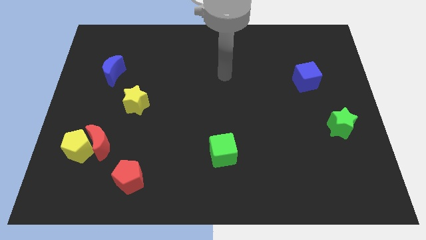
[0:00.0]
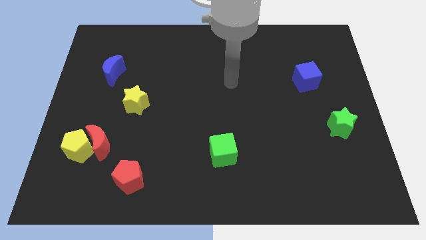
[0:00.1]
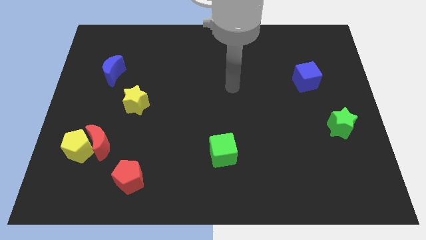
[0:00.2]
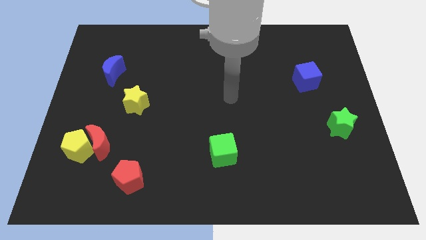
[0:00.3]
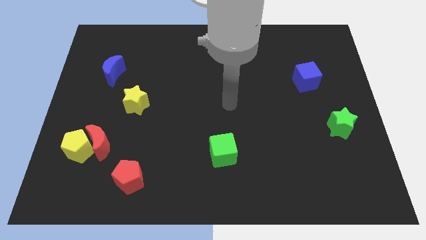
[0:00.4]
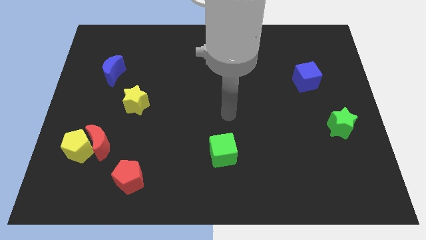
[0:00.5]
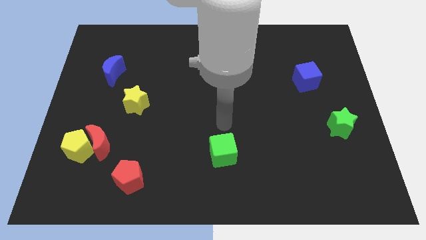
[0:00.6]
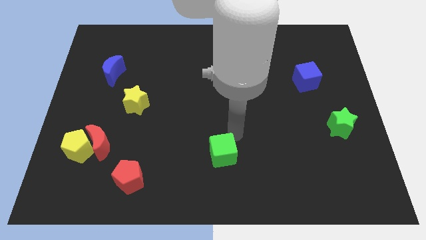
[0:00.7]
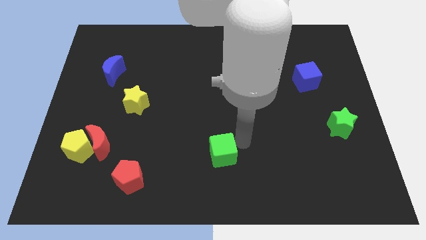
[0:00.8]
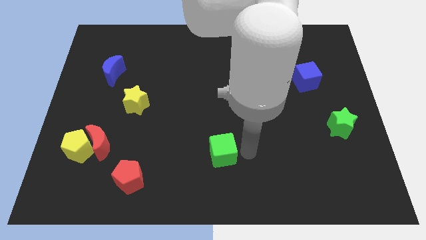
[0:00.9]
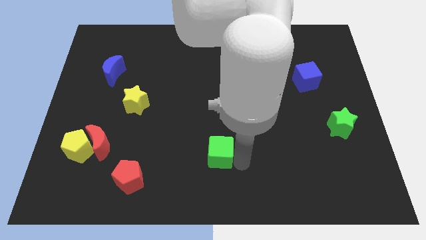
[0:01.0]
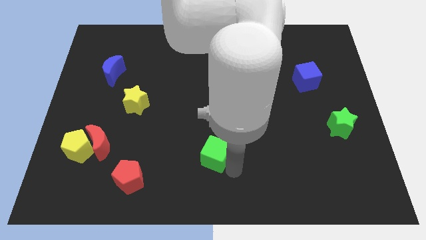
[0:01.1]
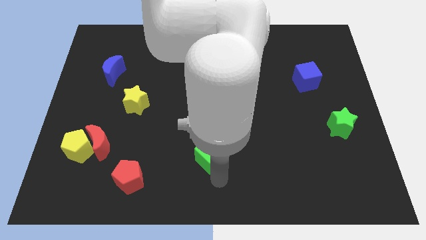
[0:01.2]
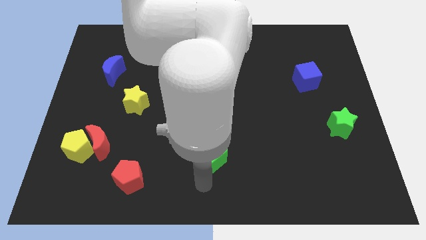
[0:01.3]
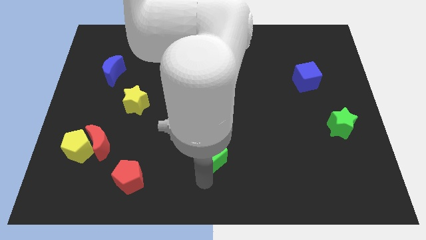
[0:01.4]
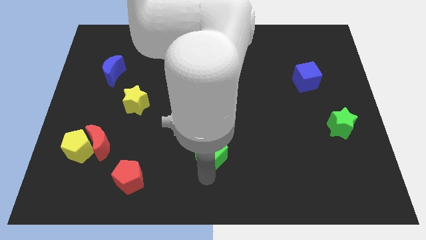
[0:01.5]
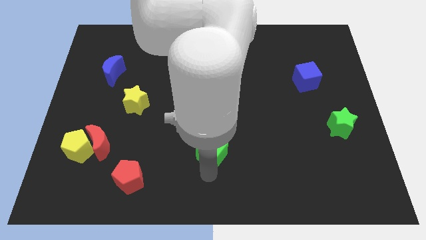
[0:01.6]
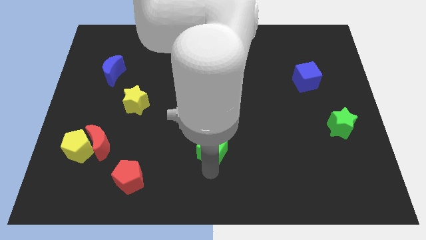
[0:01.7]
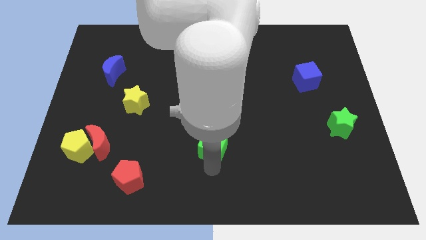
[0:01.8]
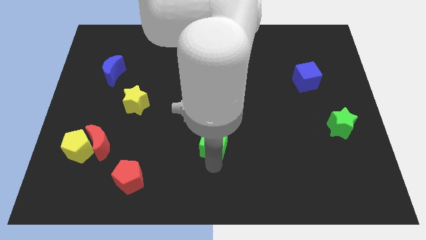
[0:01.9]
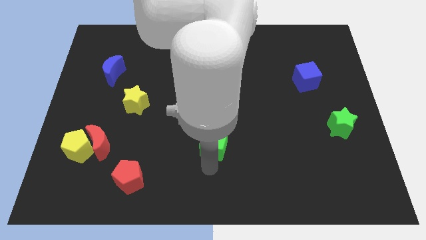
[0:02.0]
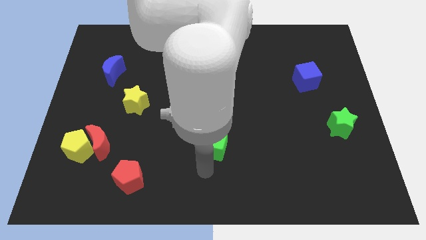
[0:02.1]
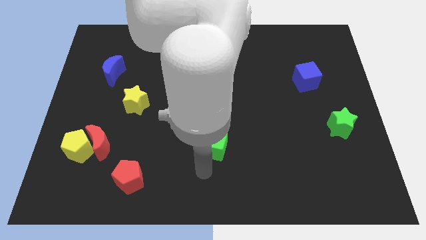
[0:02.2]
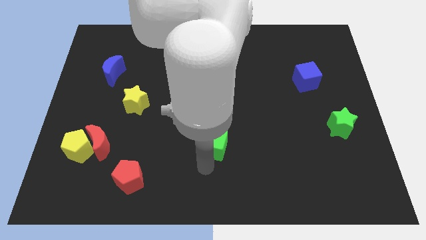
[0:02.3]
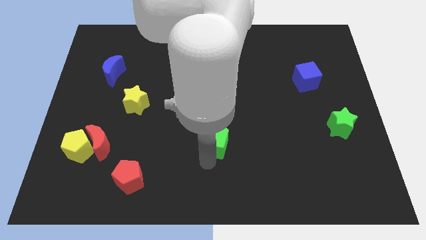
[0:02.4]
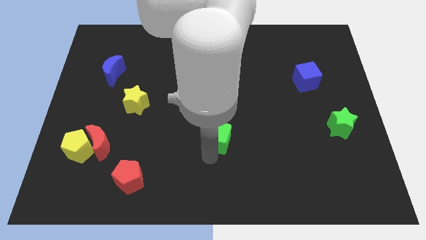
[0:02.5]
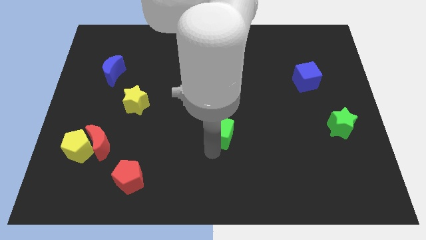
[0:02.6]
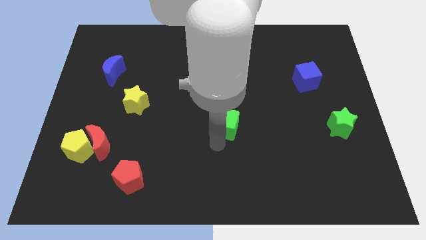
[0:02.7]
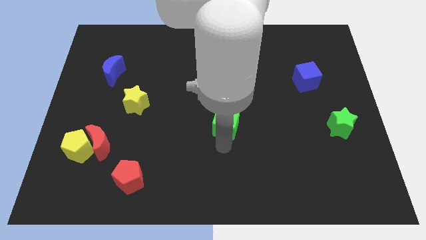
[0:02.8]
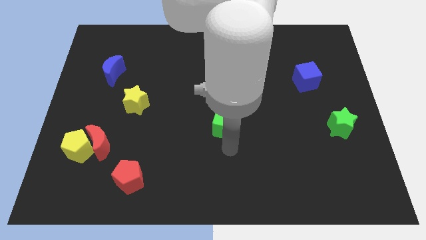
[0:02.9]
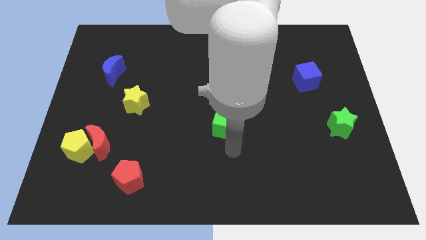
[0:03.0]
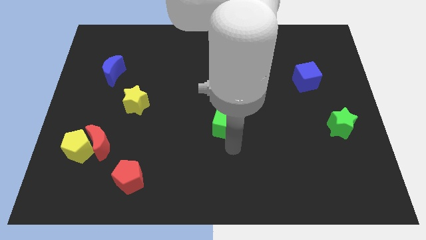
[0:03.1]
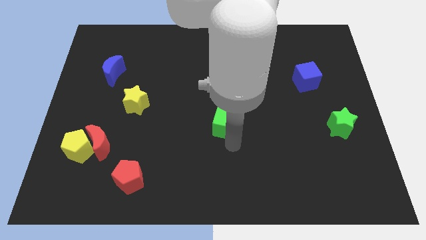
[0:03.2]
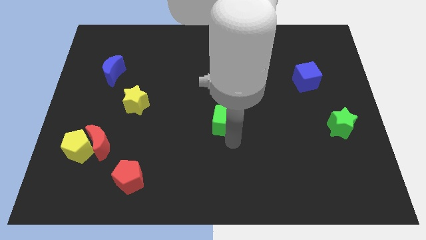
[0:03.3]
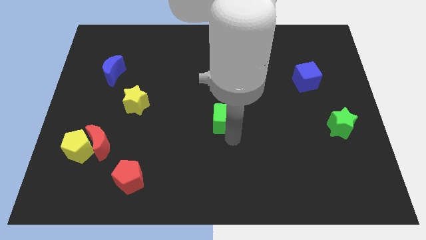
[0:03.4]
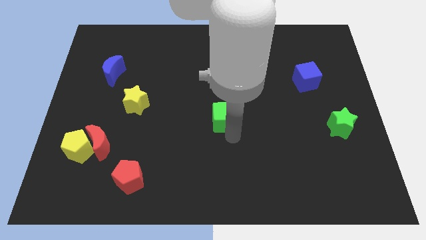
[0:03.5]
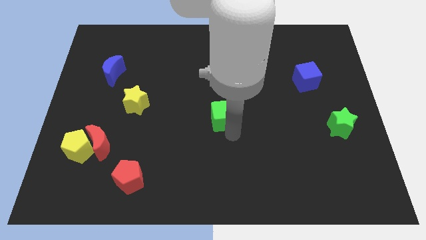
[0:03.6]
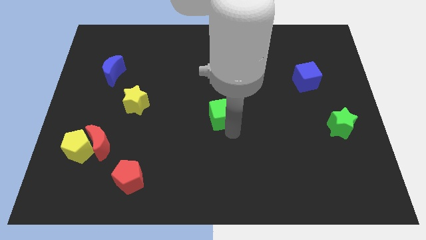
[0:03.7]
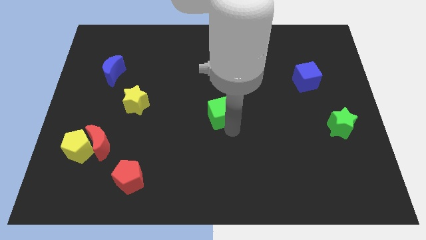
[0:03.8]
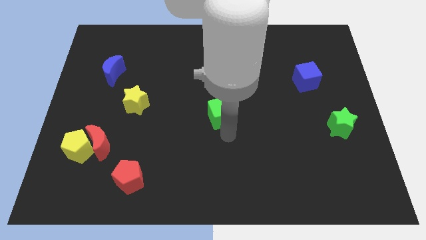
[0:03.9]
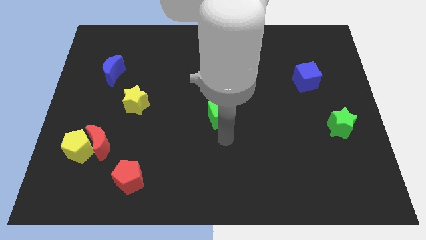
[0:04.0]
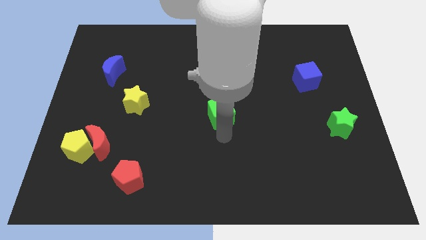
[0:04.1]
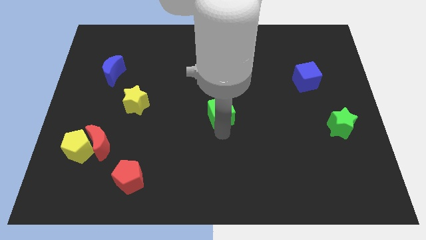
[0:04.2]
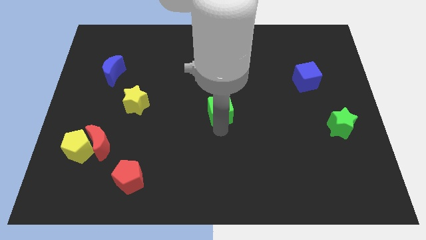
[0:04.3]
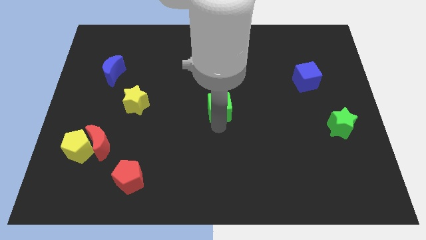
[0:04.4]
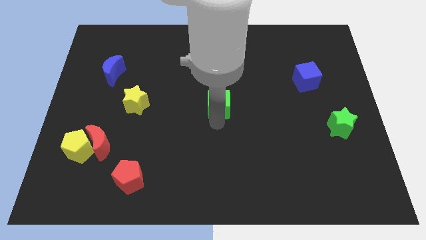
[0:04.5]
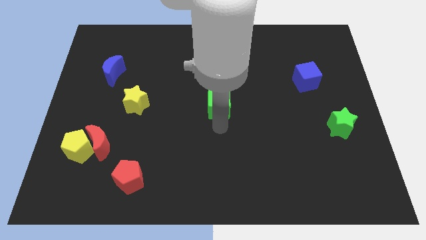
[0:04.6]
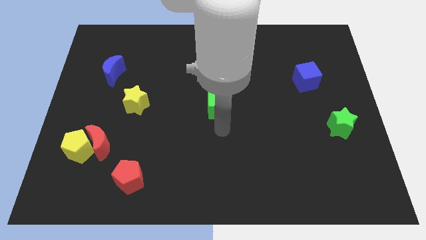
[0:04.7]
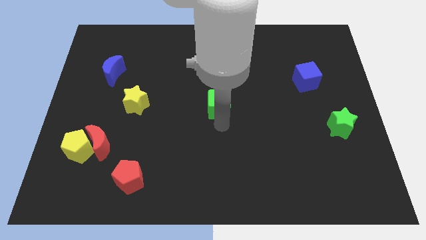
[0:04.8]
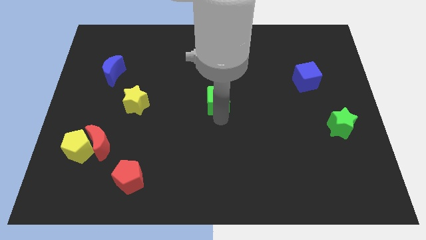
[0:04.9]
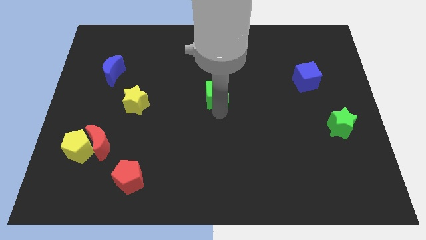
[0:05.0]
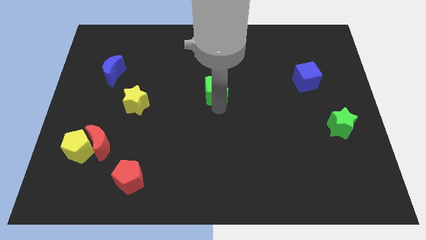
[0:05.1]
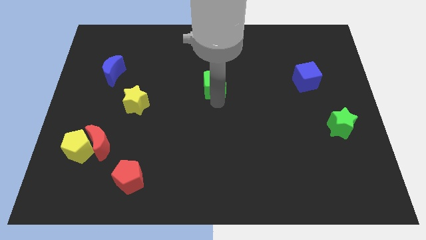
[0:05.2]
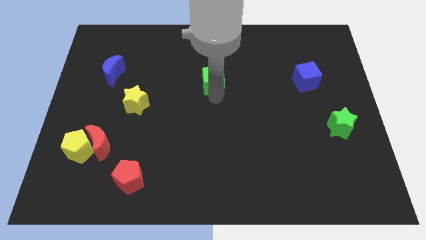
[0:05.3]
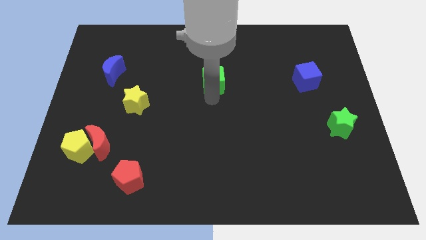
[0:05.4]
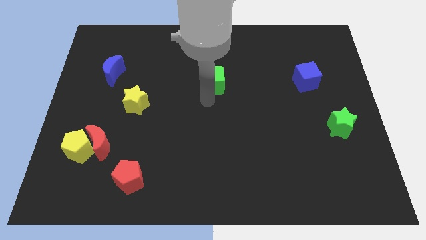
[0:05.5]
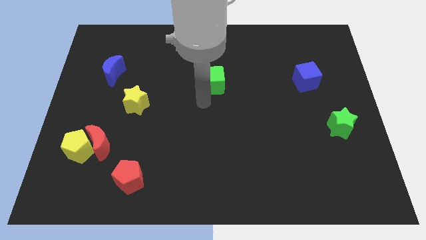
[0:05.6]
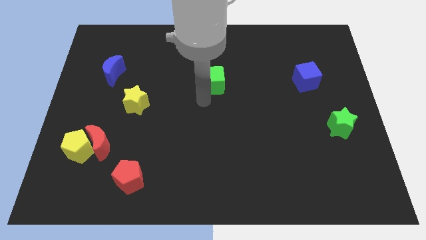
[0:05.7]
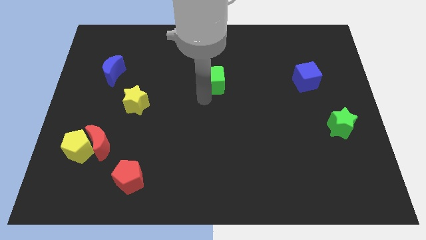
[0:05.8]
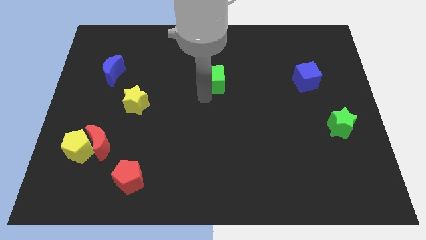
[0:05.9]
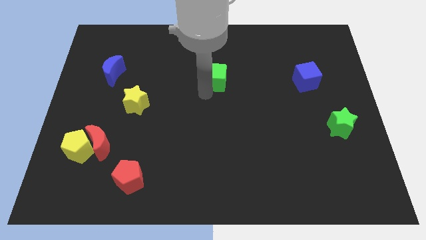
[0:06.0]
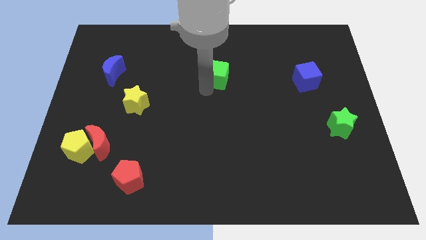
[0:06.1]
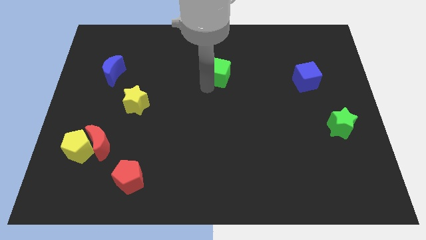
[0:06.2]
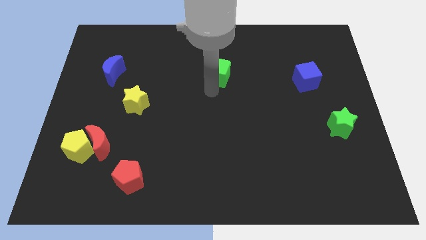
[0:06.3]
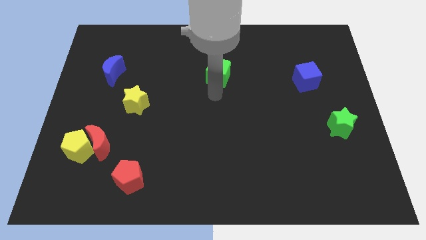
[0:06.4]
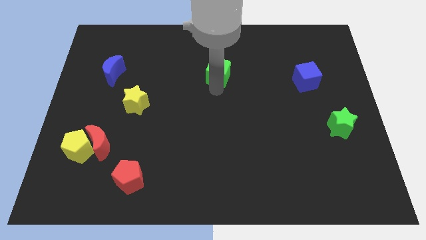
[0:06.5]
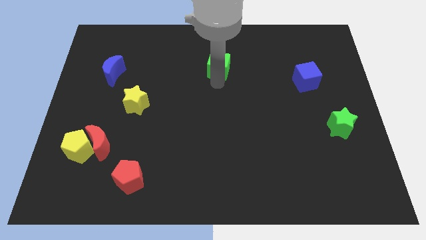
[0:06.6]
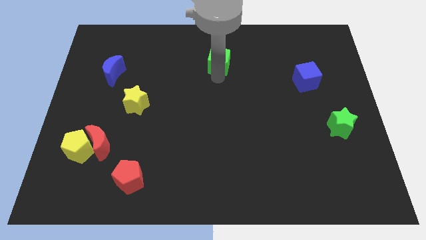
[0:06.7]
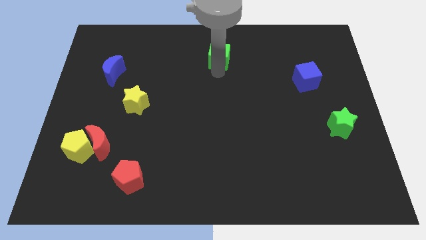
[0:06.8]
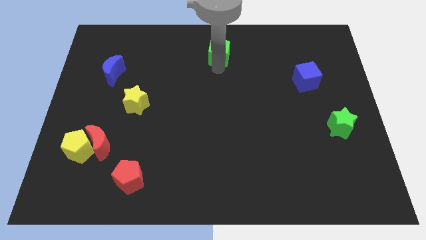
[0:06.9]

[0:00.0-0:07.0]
slide the green cube to the top side
